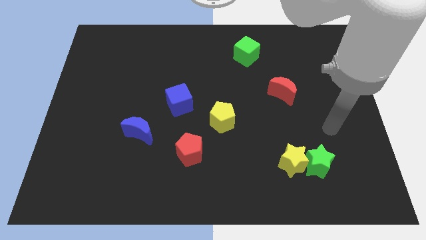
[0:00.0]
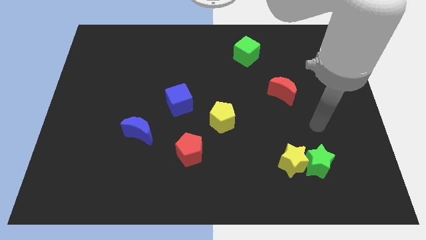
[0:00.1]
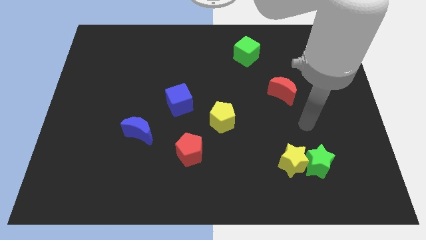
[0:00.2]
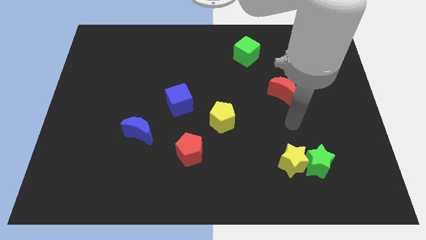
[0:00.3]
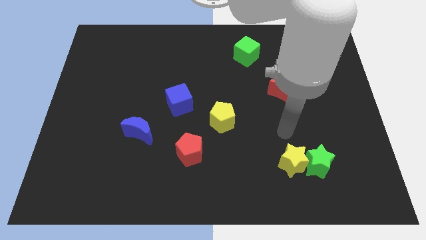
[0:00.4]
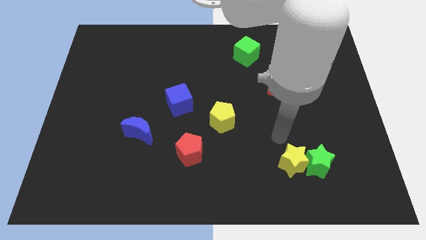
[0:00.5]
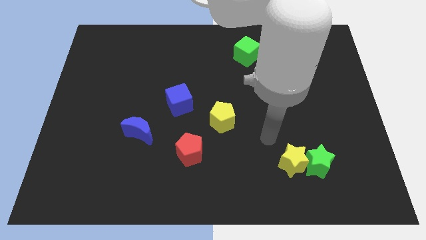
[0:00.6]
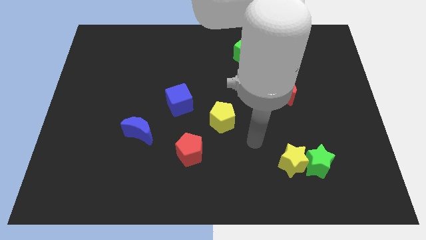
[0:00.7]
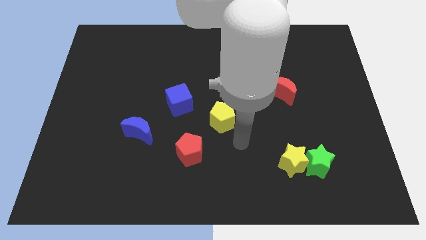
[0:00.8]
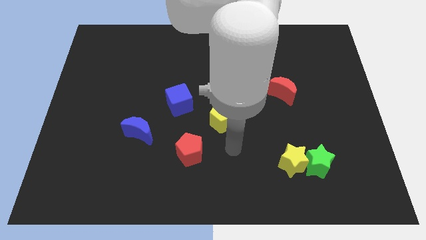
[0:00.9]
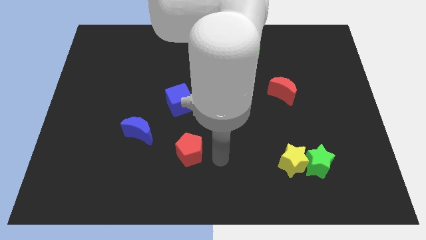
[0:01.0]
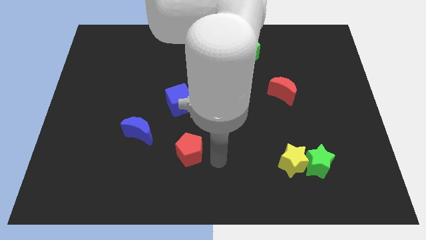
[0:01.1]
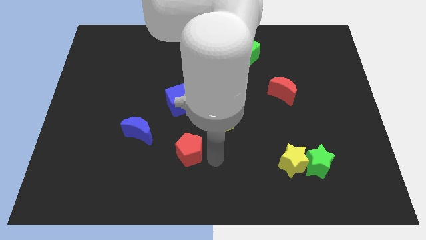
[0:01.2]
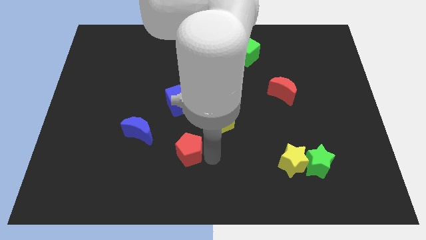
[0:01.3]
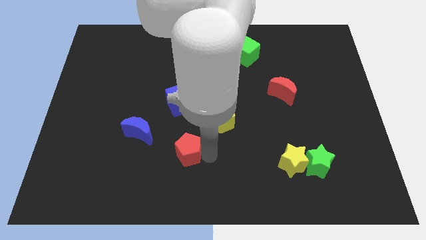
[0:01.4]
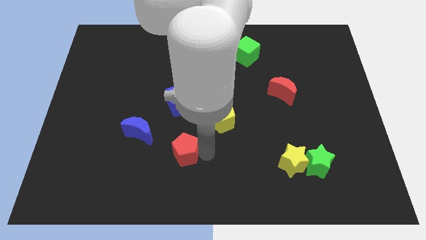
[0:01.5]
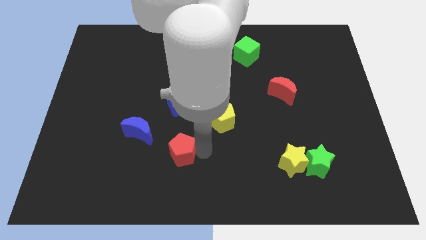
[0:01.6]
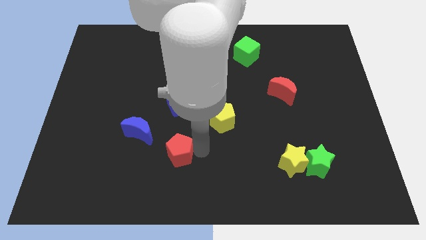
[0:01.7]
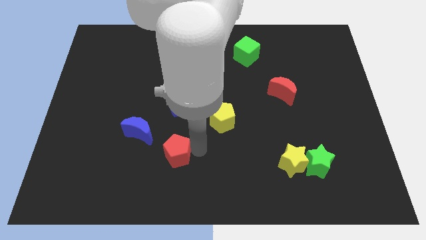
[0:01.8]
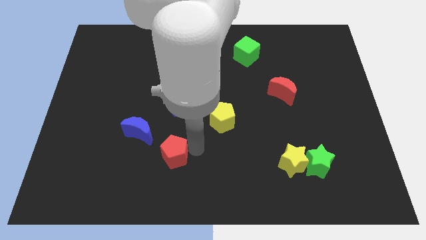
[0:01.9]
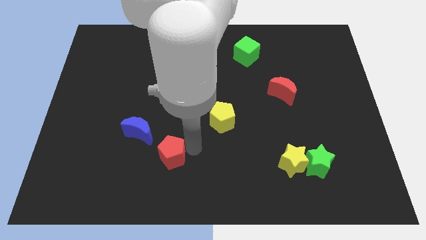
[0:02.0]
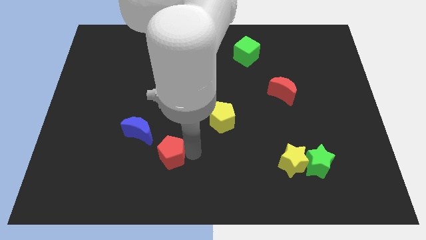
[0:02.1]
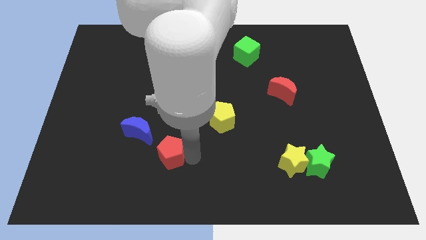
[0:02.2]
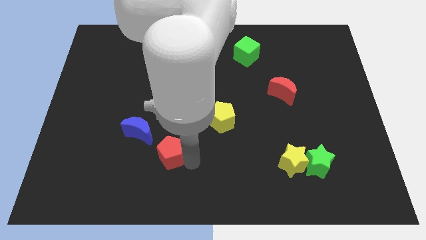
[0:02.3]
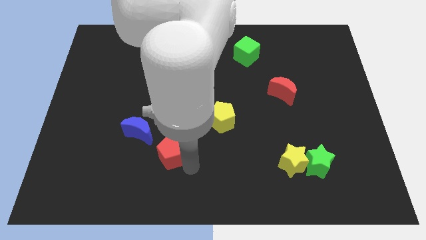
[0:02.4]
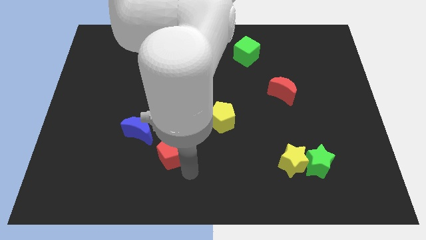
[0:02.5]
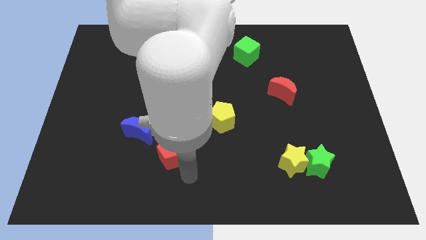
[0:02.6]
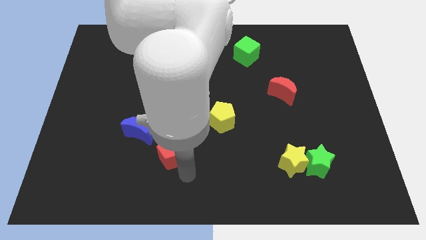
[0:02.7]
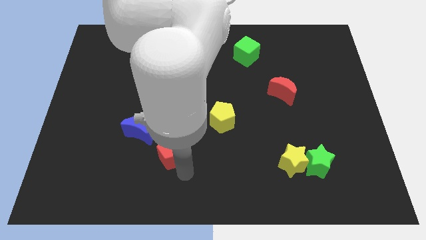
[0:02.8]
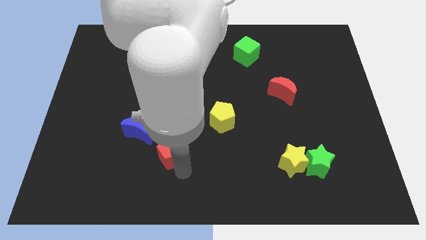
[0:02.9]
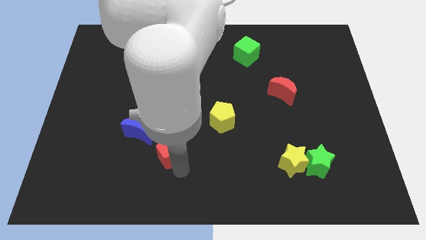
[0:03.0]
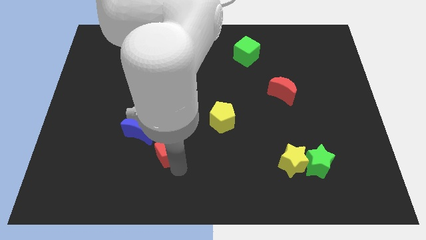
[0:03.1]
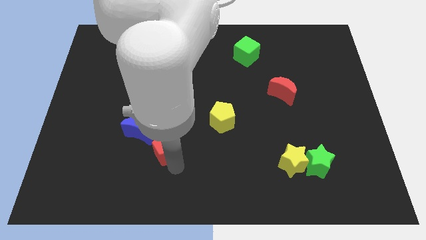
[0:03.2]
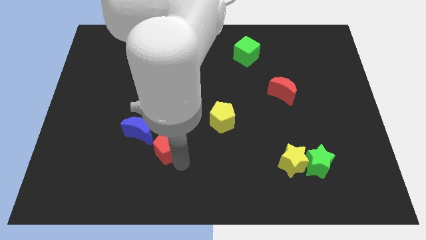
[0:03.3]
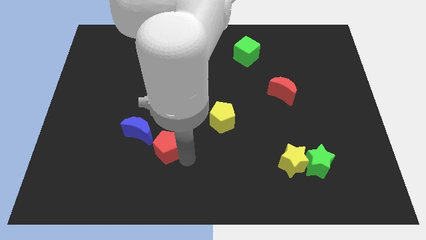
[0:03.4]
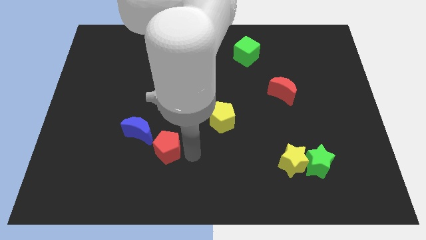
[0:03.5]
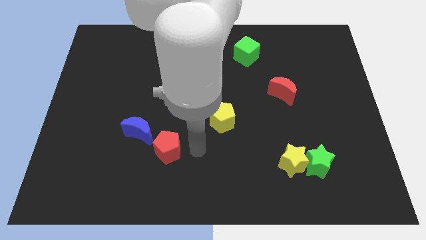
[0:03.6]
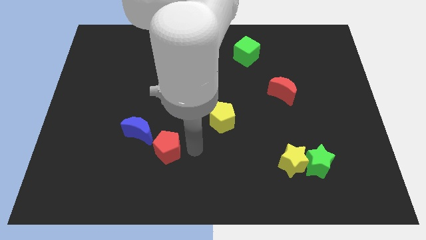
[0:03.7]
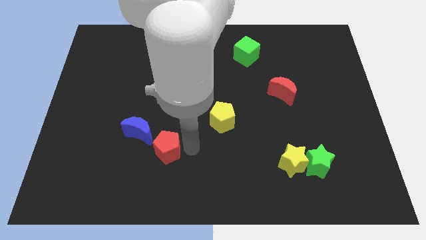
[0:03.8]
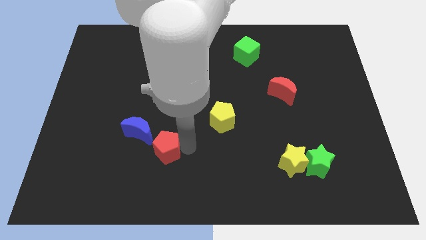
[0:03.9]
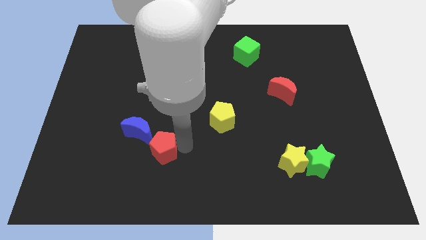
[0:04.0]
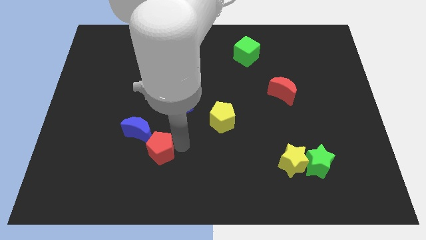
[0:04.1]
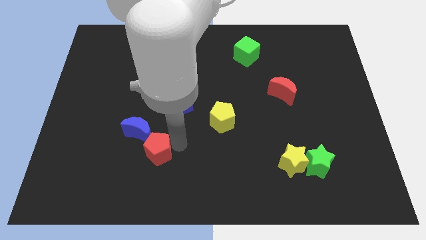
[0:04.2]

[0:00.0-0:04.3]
slide the red pentagon to the left somewhat

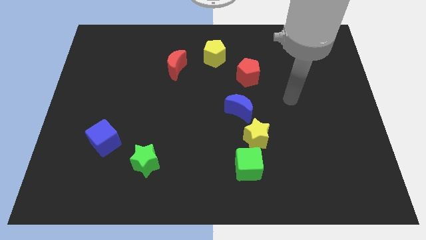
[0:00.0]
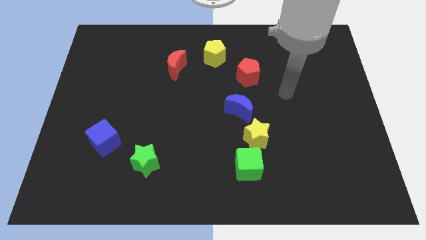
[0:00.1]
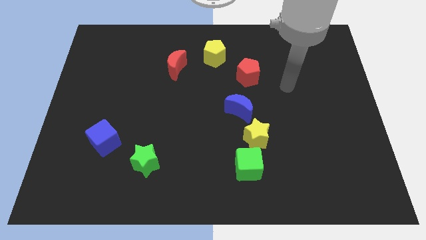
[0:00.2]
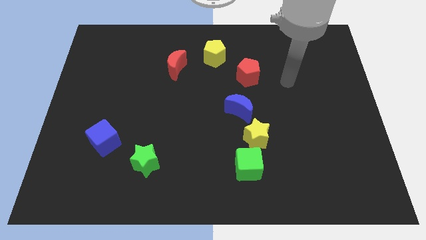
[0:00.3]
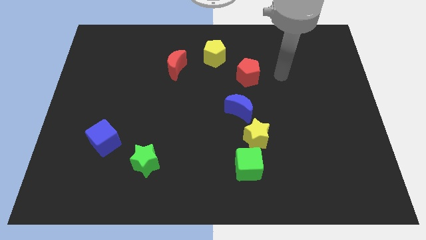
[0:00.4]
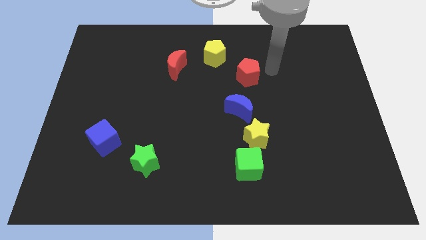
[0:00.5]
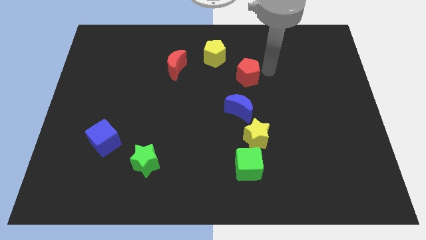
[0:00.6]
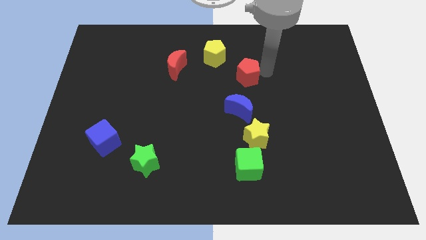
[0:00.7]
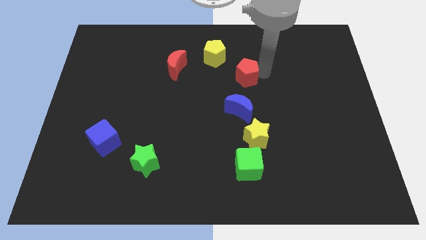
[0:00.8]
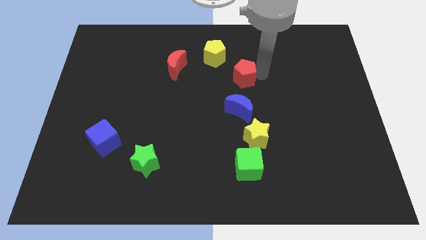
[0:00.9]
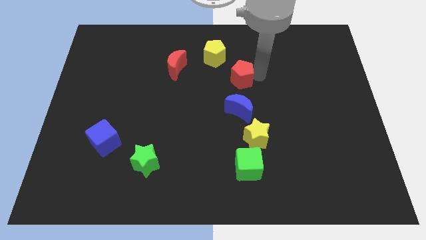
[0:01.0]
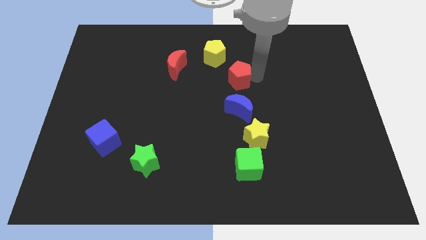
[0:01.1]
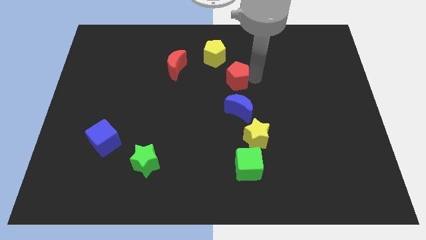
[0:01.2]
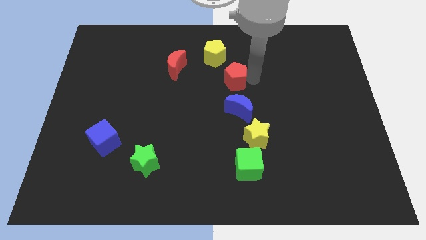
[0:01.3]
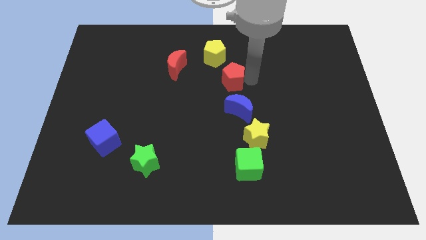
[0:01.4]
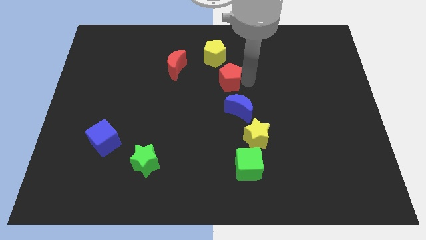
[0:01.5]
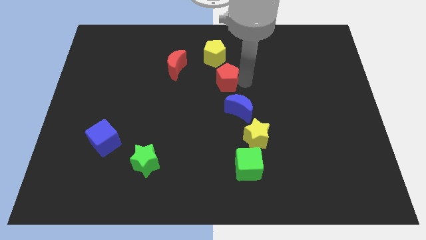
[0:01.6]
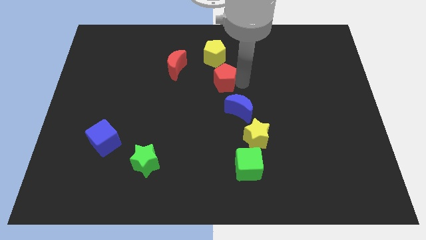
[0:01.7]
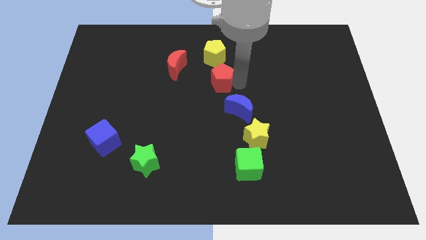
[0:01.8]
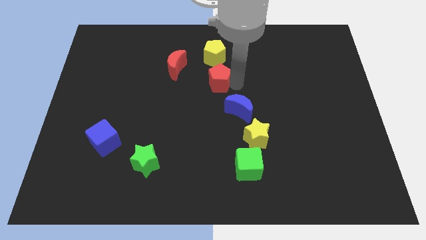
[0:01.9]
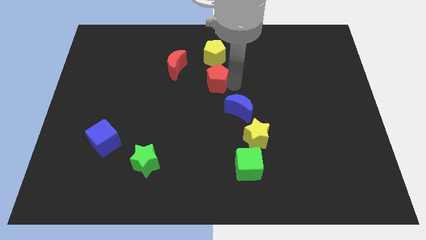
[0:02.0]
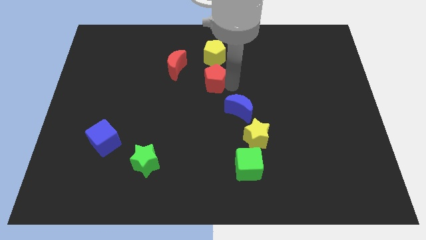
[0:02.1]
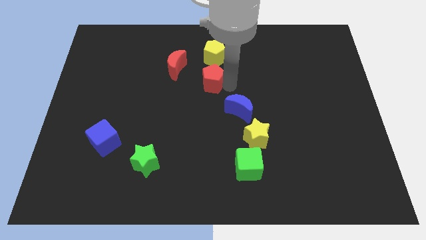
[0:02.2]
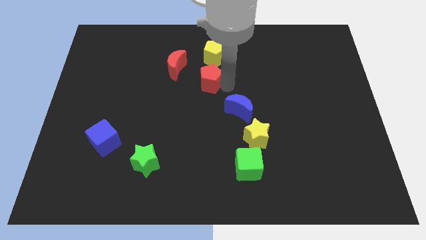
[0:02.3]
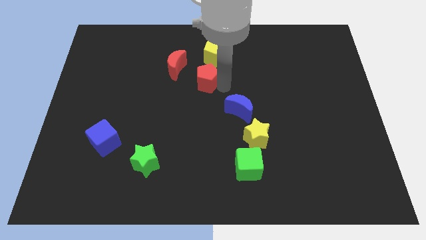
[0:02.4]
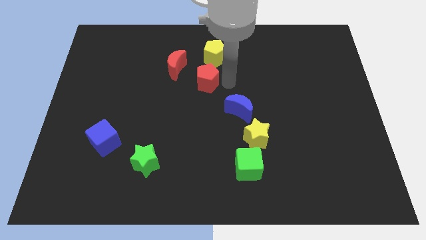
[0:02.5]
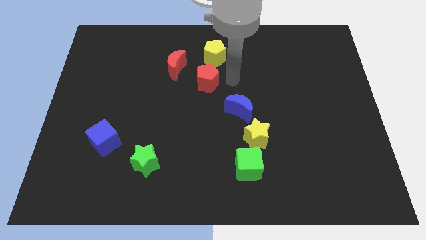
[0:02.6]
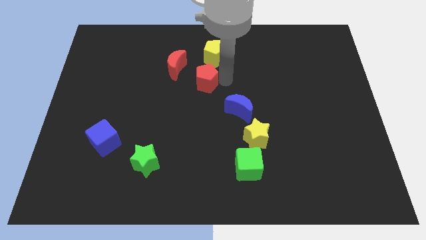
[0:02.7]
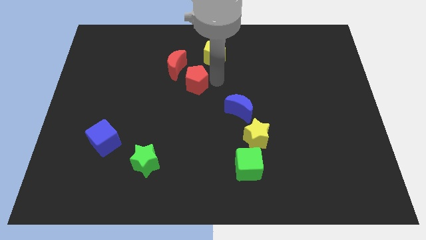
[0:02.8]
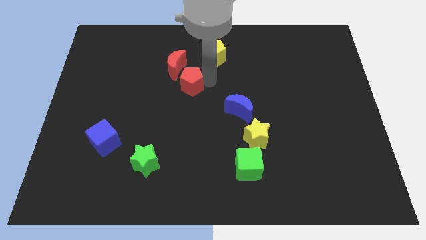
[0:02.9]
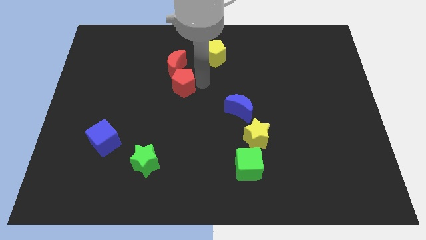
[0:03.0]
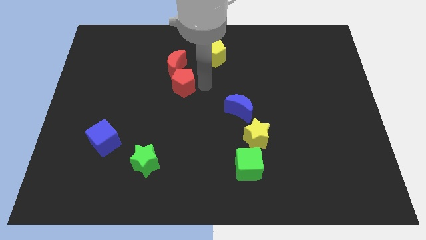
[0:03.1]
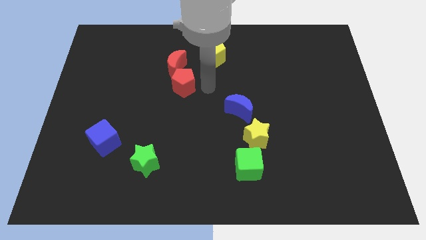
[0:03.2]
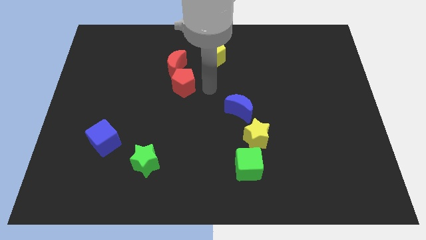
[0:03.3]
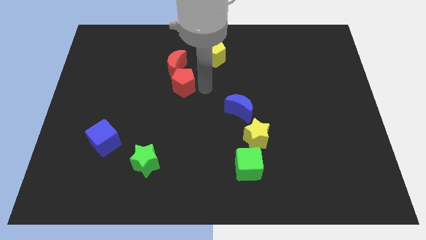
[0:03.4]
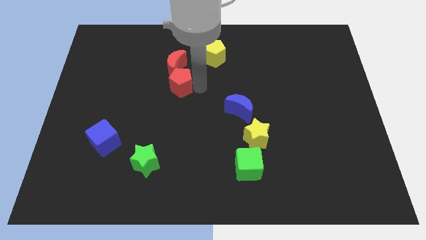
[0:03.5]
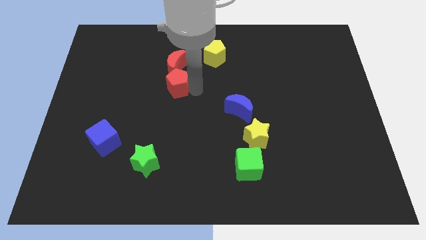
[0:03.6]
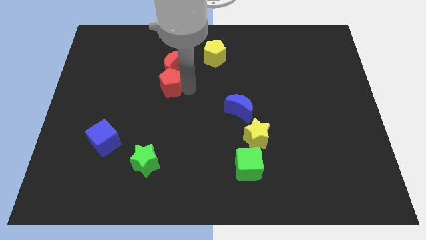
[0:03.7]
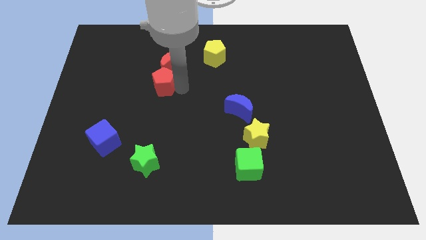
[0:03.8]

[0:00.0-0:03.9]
slide the red pentagon to the left

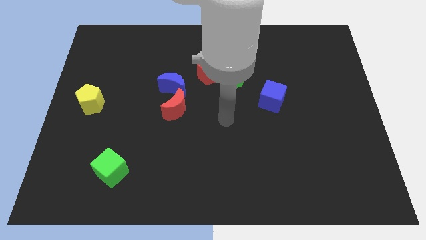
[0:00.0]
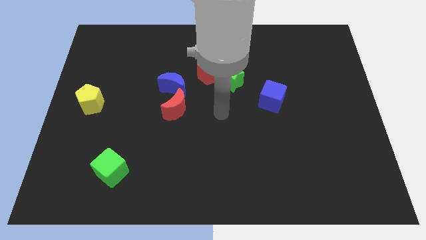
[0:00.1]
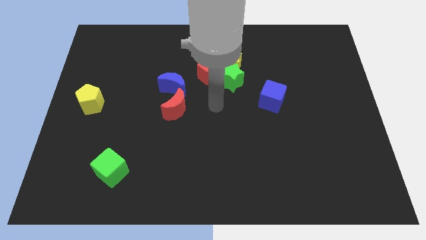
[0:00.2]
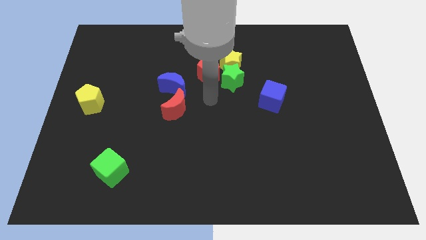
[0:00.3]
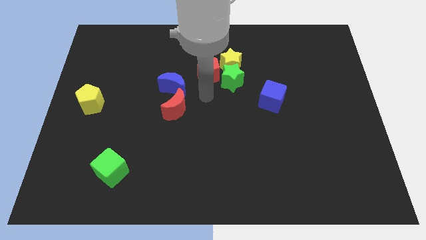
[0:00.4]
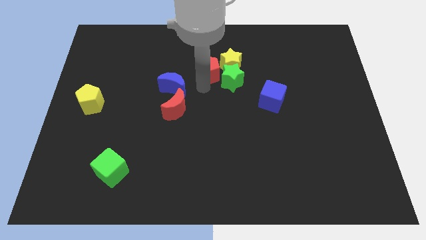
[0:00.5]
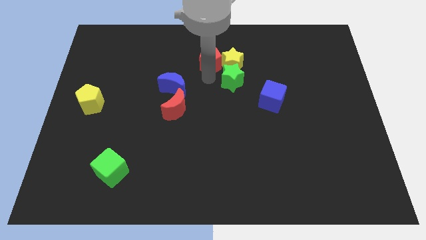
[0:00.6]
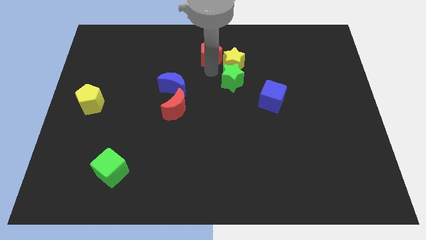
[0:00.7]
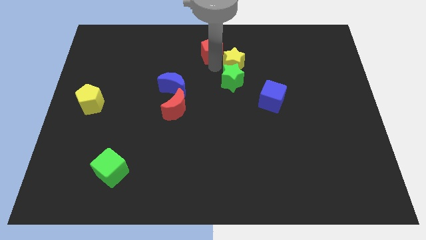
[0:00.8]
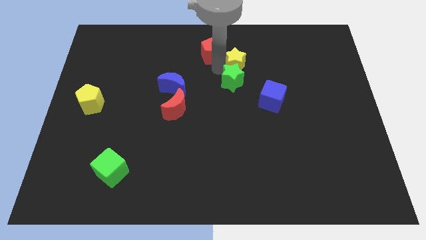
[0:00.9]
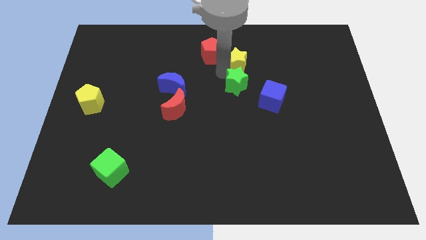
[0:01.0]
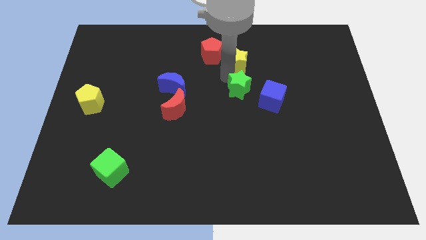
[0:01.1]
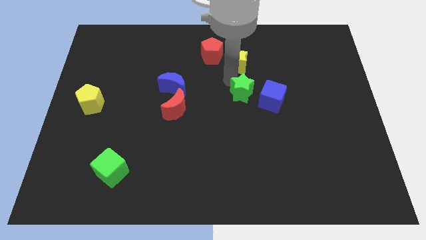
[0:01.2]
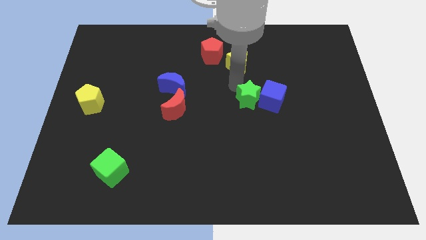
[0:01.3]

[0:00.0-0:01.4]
push the green star diagonally down and to the right a bit
